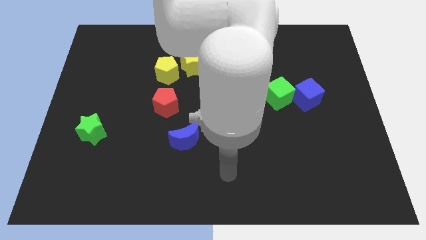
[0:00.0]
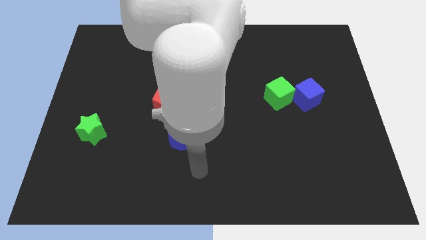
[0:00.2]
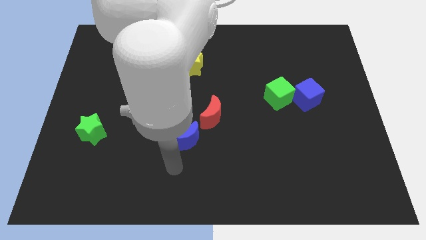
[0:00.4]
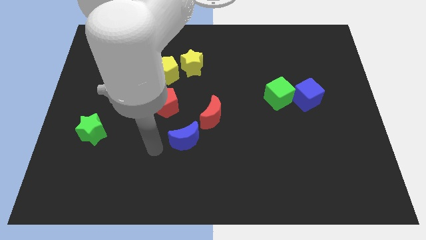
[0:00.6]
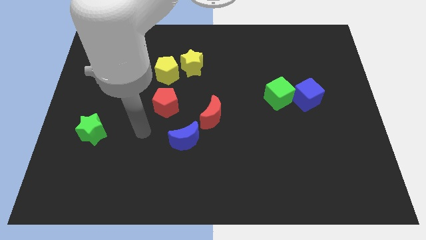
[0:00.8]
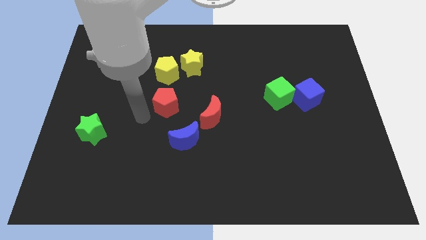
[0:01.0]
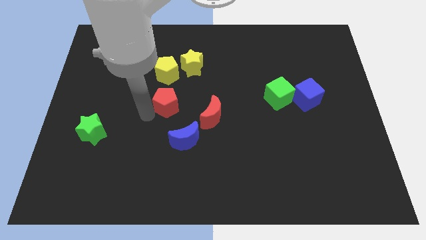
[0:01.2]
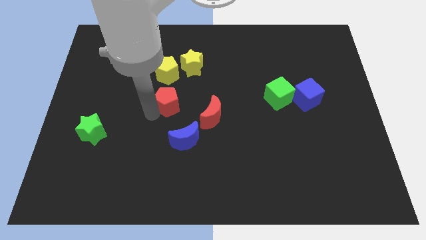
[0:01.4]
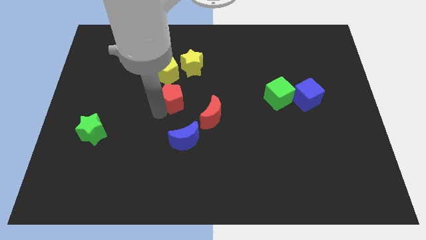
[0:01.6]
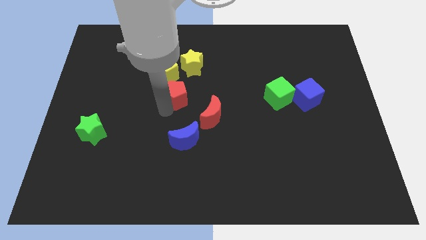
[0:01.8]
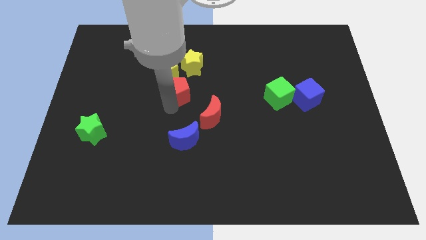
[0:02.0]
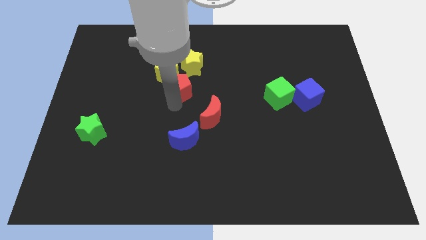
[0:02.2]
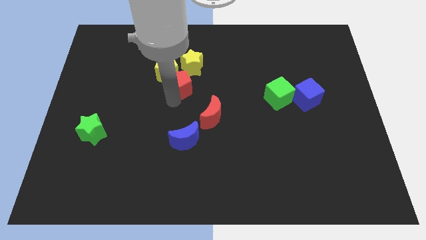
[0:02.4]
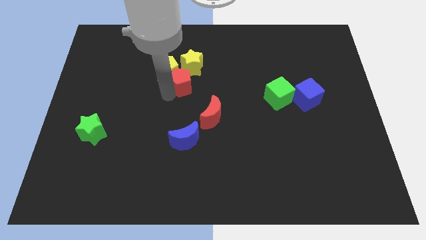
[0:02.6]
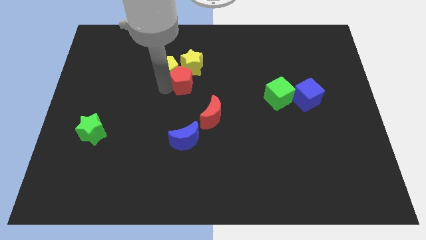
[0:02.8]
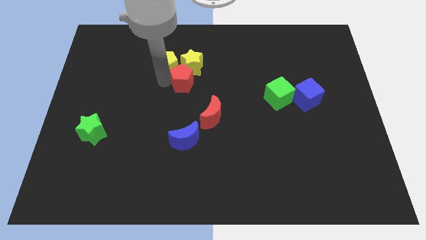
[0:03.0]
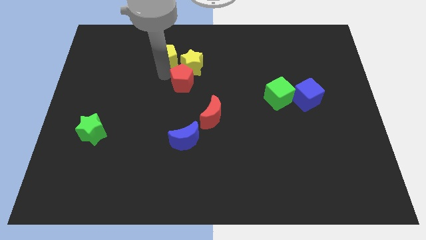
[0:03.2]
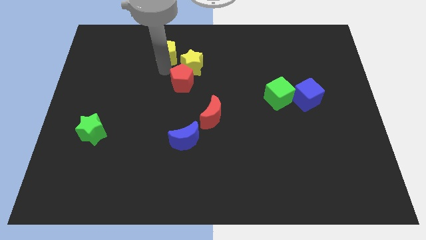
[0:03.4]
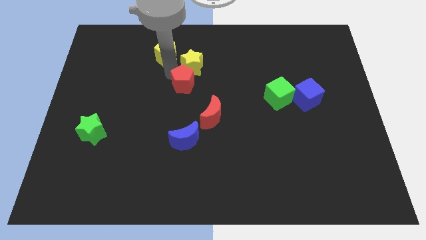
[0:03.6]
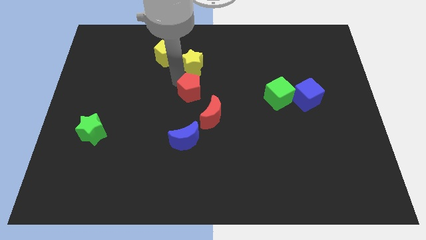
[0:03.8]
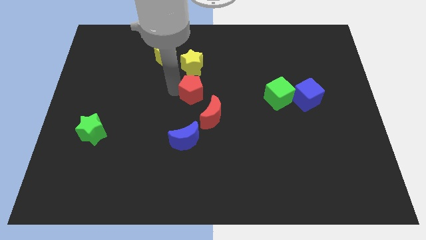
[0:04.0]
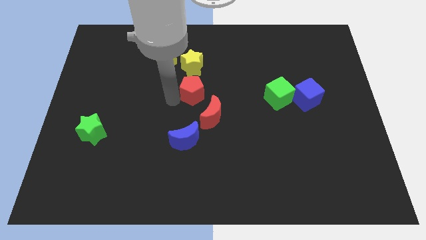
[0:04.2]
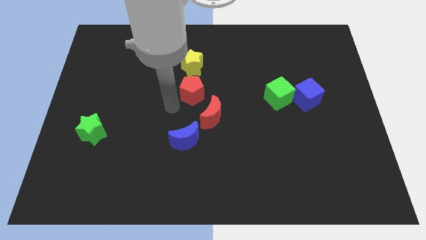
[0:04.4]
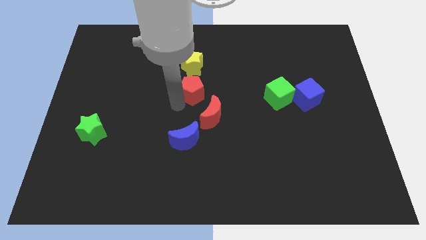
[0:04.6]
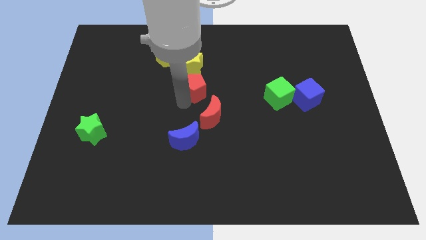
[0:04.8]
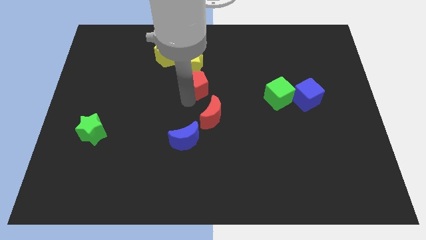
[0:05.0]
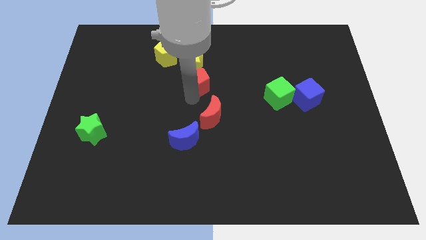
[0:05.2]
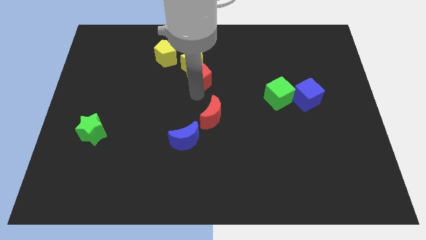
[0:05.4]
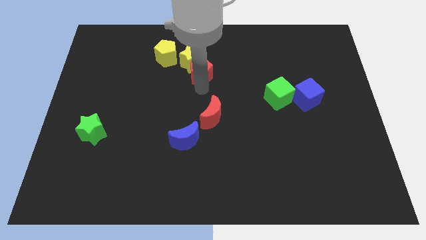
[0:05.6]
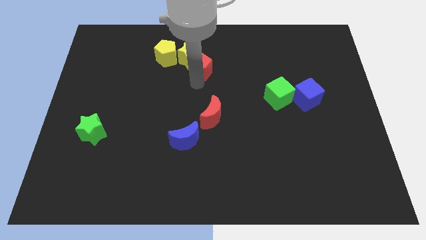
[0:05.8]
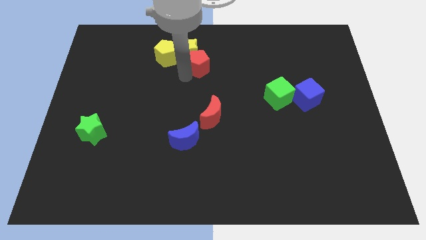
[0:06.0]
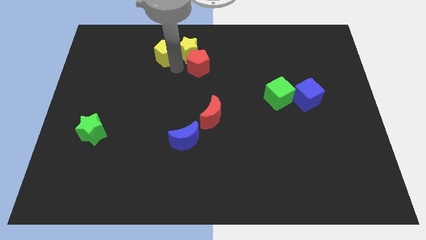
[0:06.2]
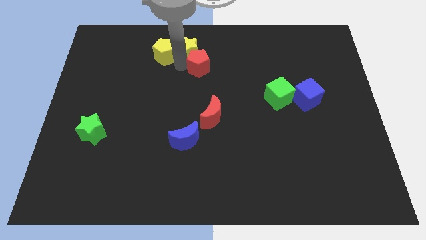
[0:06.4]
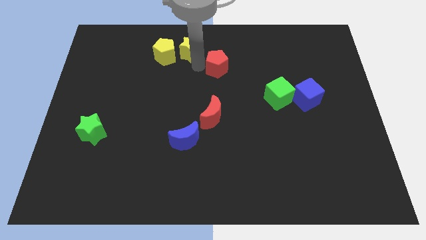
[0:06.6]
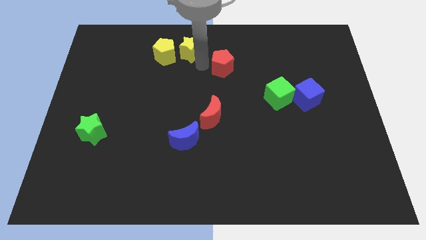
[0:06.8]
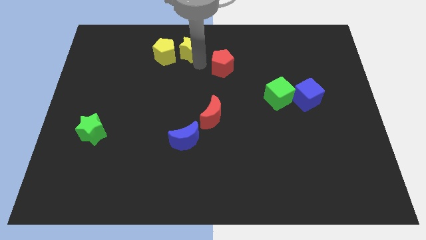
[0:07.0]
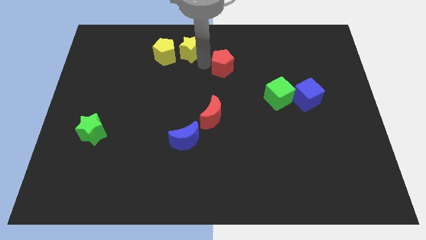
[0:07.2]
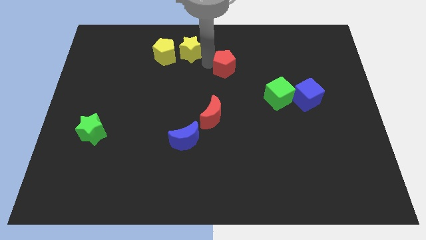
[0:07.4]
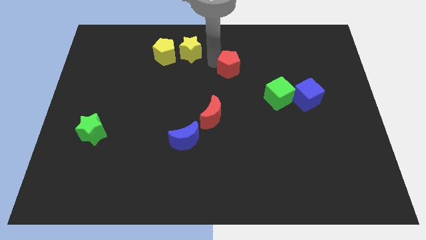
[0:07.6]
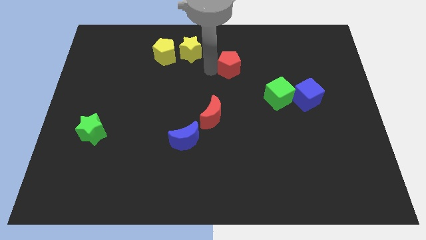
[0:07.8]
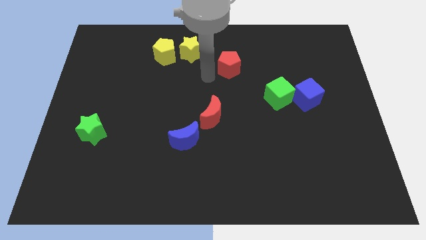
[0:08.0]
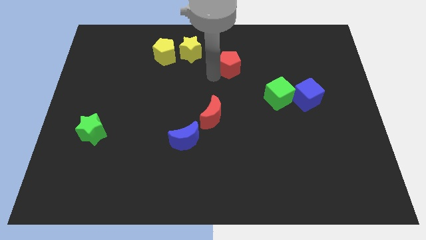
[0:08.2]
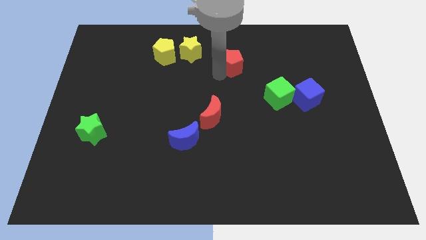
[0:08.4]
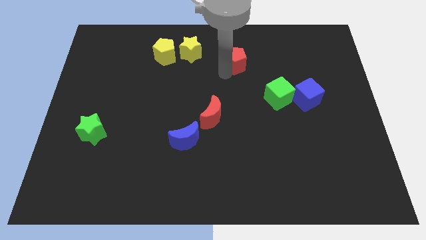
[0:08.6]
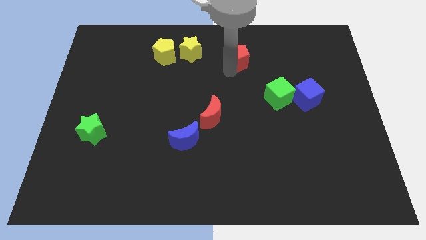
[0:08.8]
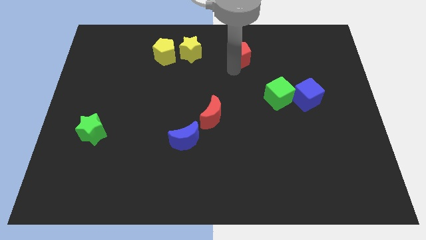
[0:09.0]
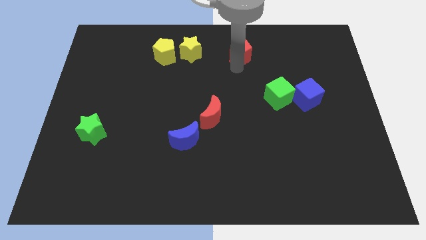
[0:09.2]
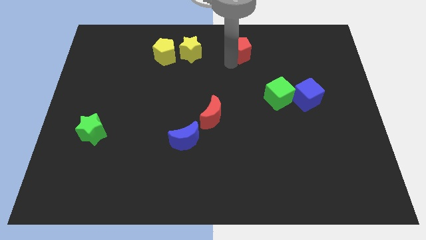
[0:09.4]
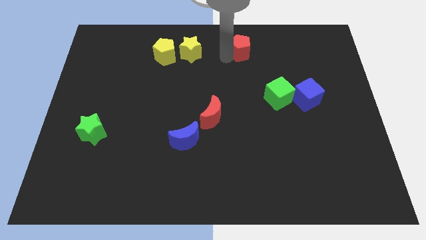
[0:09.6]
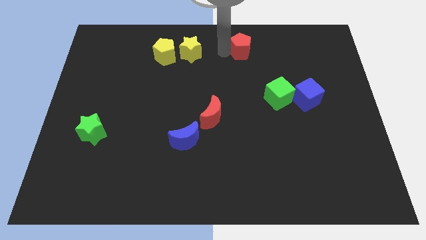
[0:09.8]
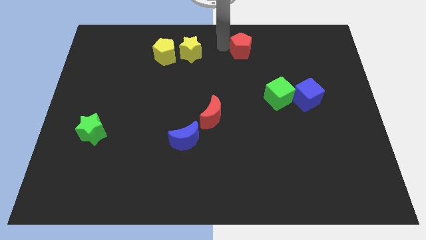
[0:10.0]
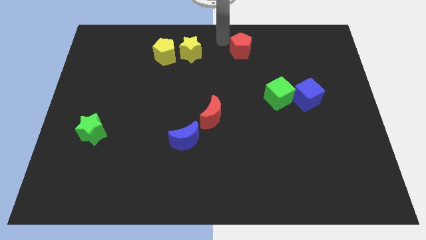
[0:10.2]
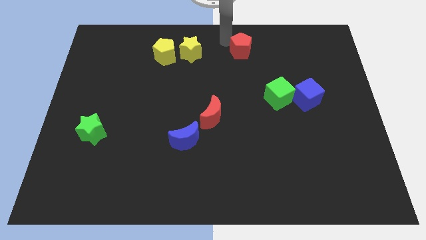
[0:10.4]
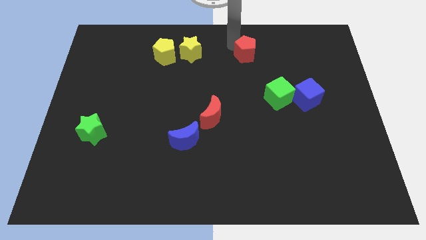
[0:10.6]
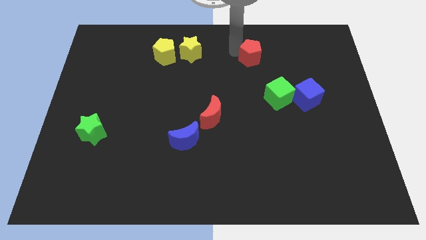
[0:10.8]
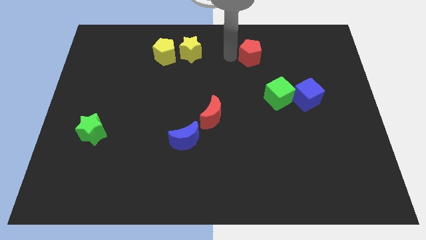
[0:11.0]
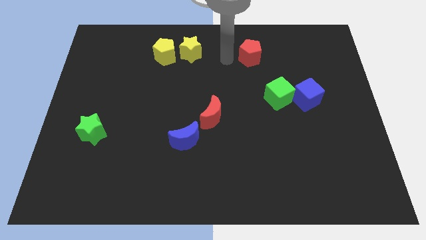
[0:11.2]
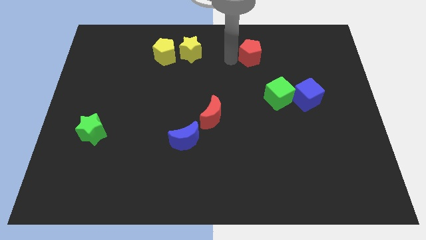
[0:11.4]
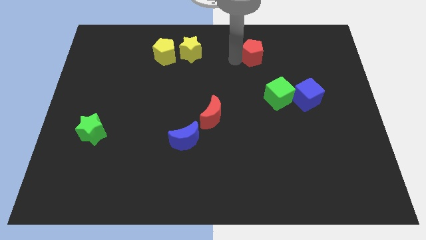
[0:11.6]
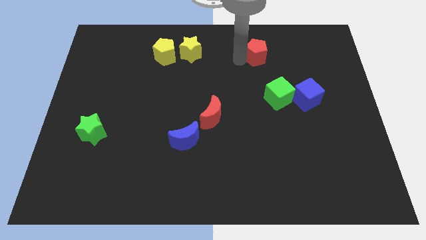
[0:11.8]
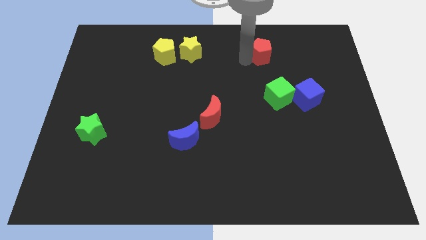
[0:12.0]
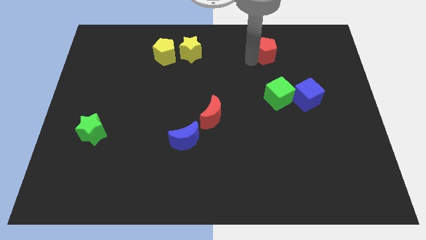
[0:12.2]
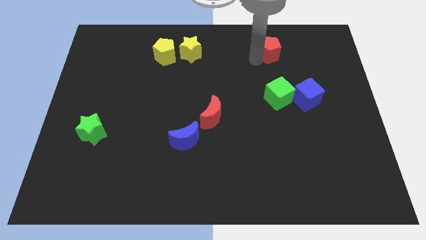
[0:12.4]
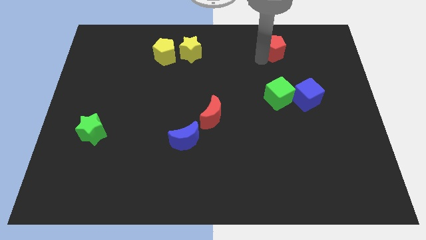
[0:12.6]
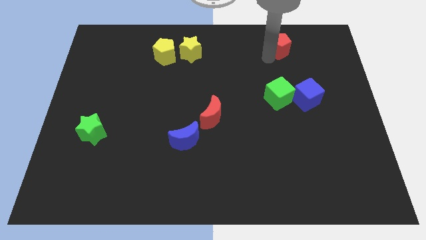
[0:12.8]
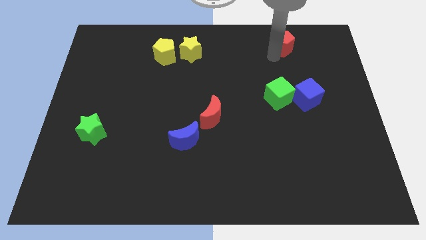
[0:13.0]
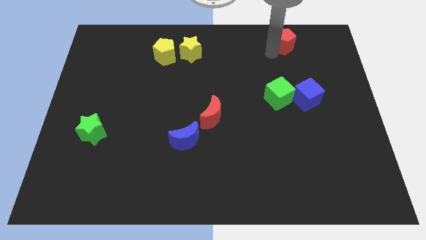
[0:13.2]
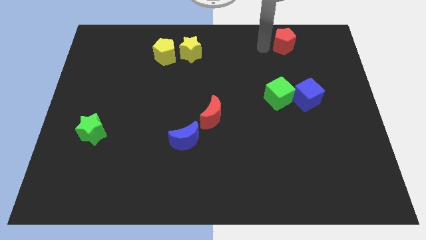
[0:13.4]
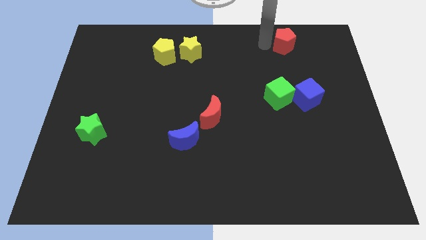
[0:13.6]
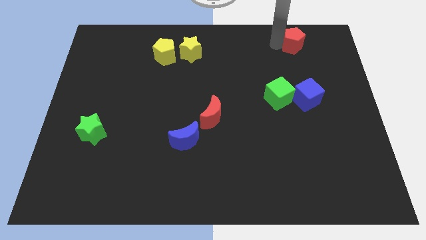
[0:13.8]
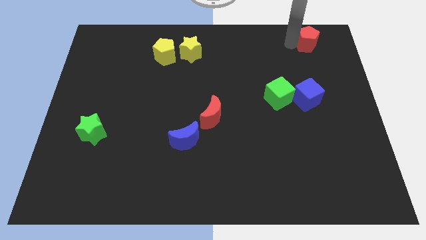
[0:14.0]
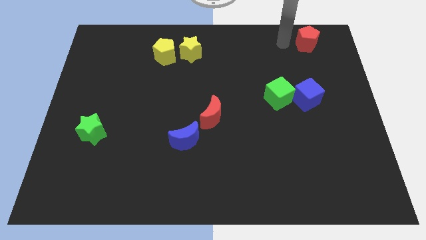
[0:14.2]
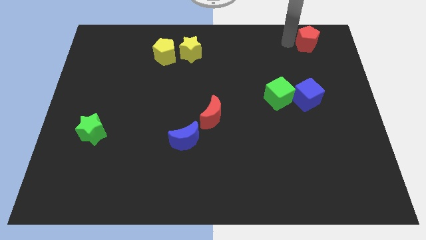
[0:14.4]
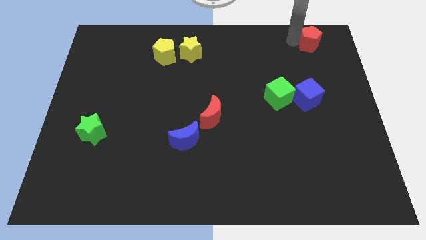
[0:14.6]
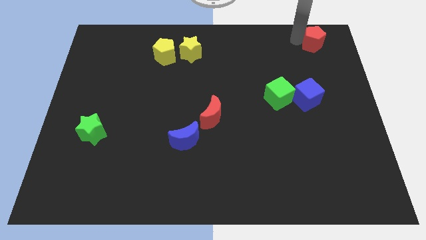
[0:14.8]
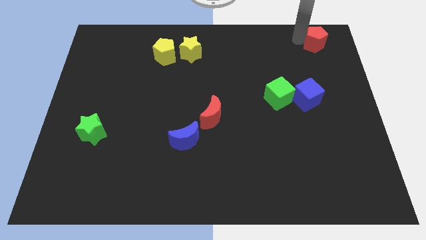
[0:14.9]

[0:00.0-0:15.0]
slide the red pentagon to the top right corner
